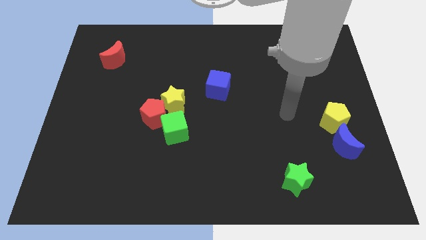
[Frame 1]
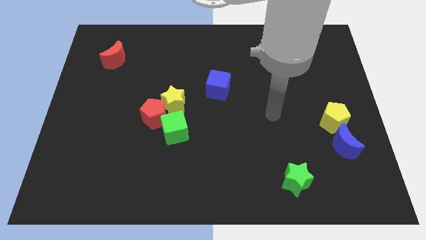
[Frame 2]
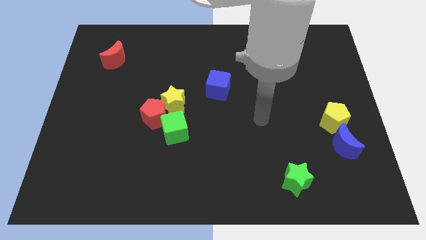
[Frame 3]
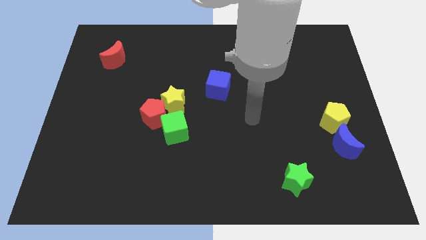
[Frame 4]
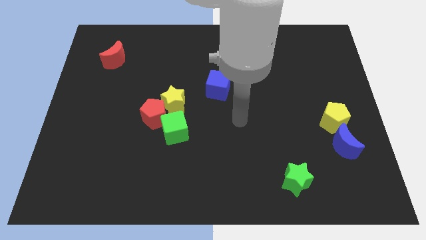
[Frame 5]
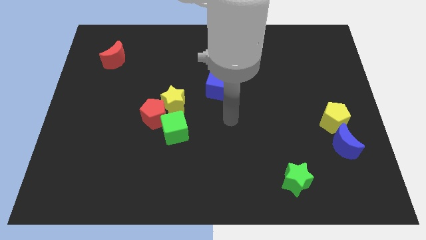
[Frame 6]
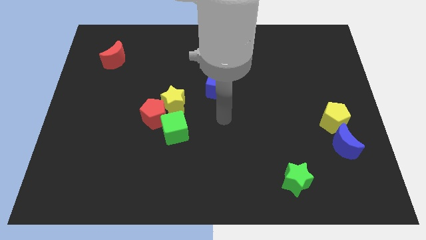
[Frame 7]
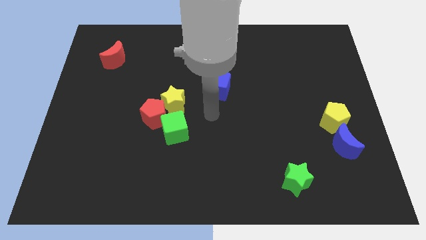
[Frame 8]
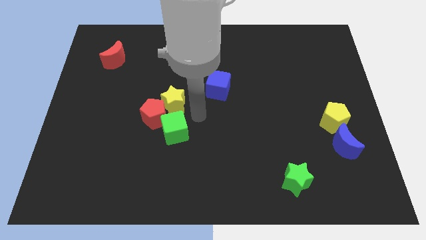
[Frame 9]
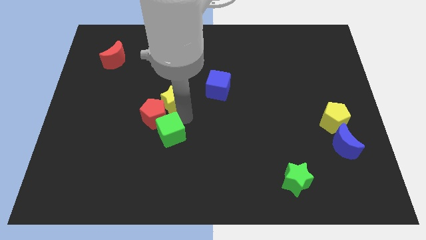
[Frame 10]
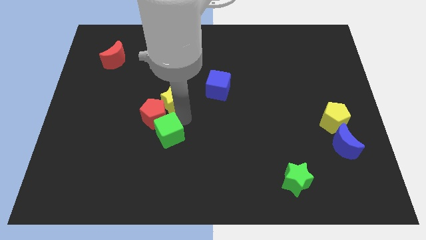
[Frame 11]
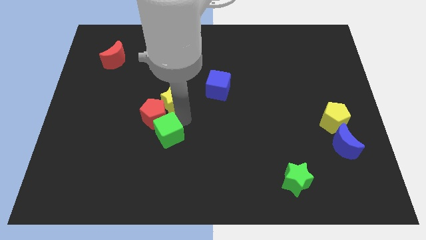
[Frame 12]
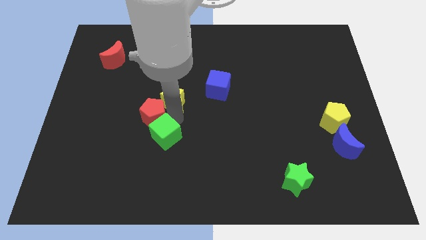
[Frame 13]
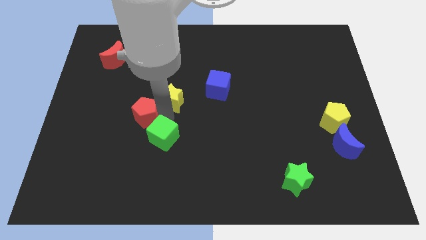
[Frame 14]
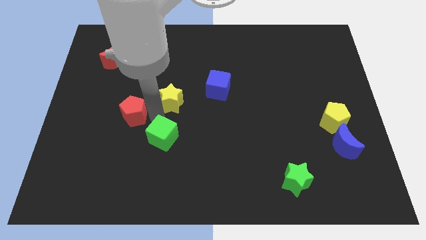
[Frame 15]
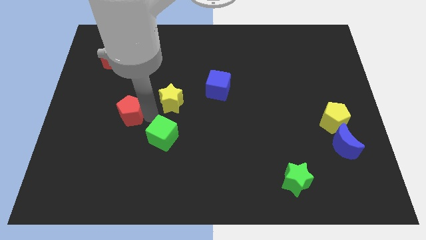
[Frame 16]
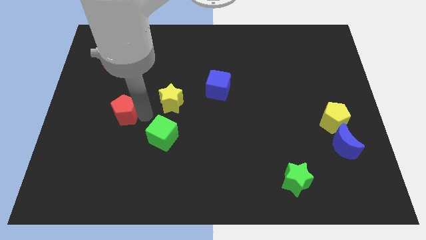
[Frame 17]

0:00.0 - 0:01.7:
pull the red pentagon apart from the yellow star and green cube

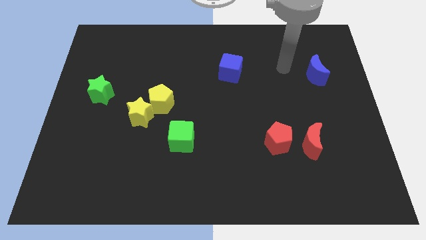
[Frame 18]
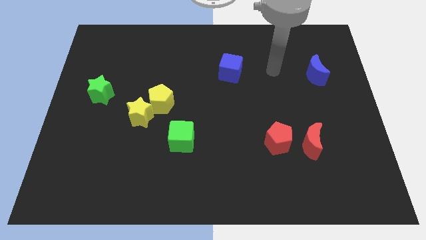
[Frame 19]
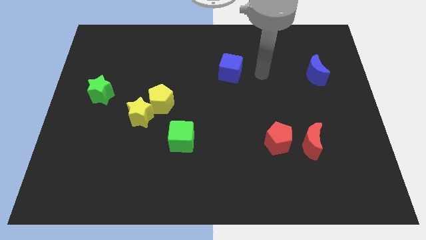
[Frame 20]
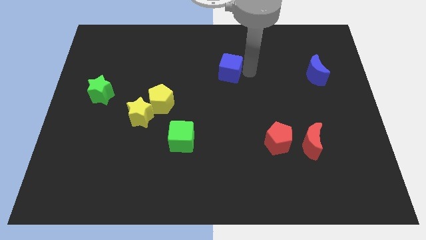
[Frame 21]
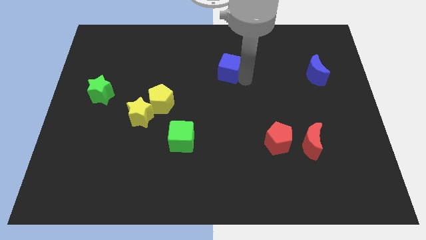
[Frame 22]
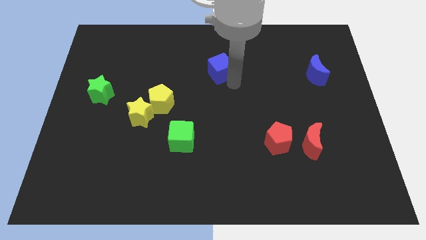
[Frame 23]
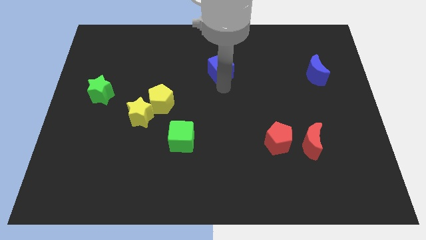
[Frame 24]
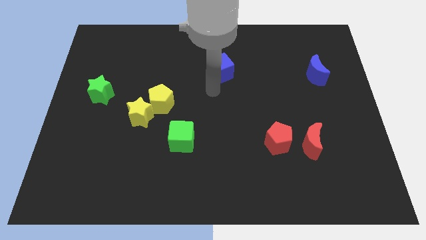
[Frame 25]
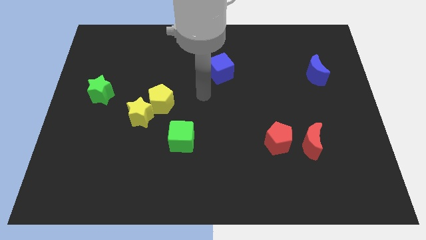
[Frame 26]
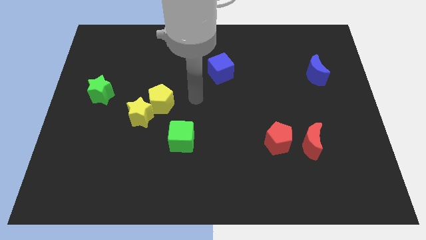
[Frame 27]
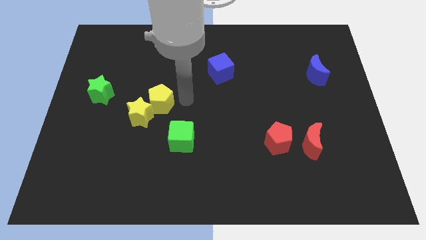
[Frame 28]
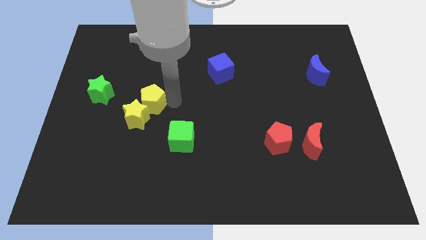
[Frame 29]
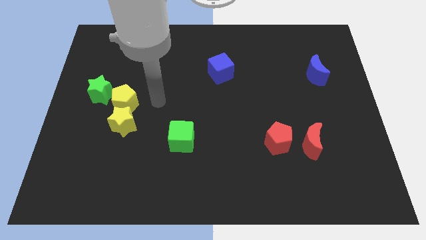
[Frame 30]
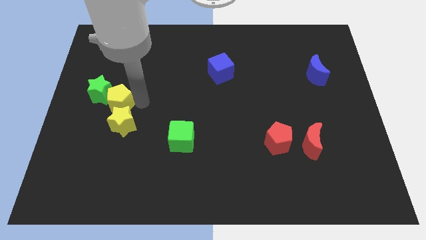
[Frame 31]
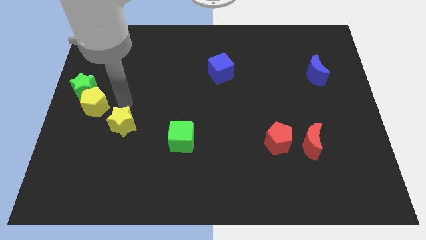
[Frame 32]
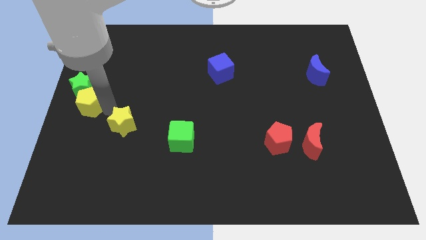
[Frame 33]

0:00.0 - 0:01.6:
move the yellow star away from the yellow pentagon

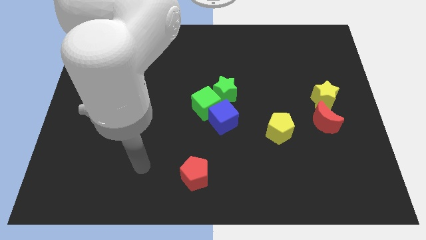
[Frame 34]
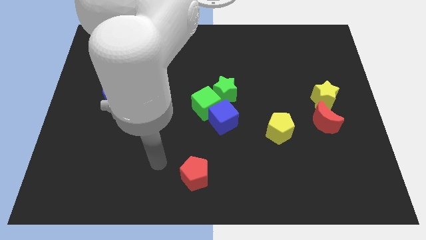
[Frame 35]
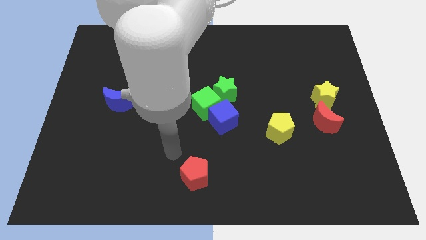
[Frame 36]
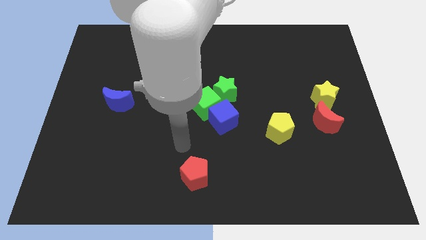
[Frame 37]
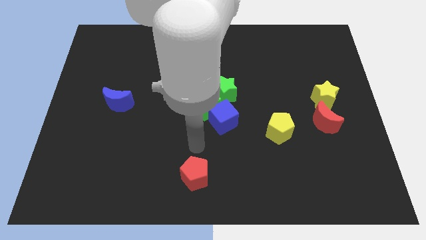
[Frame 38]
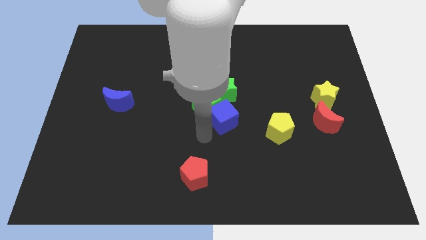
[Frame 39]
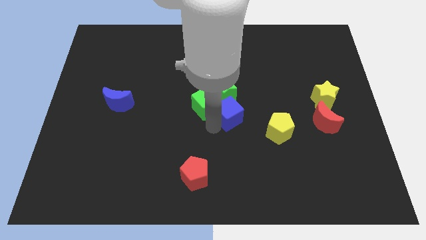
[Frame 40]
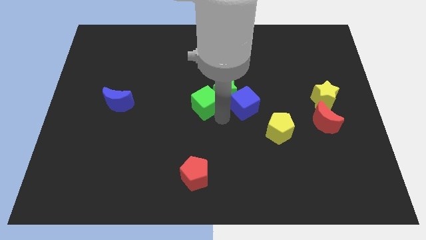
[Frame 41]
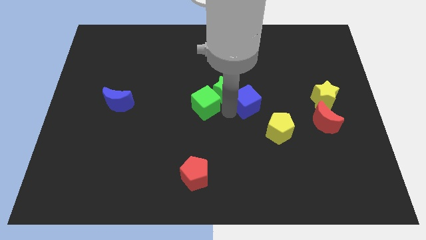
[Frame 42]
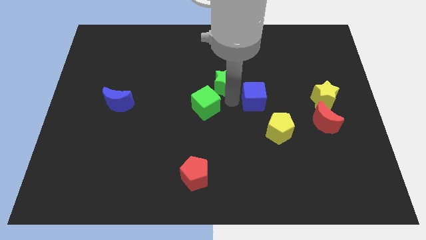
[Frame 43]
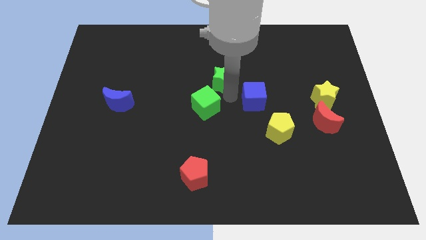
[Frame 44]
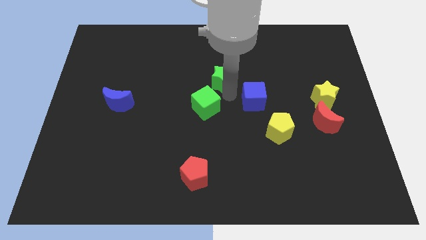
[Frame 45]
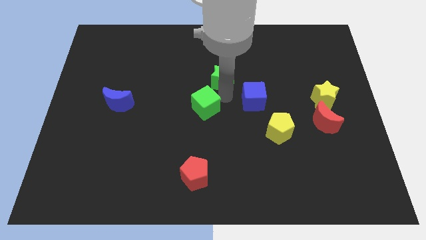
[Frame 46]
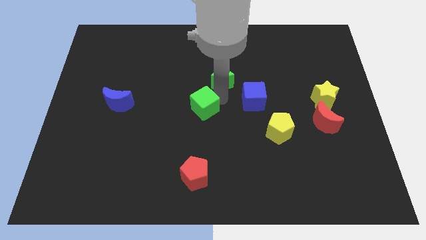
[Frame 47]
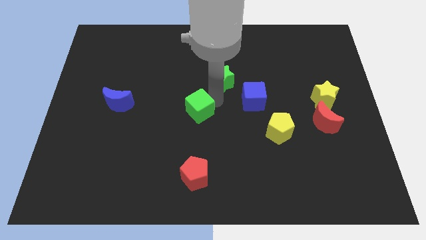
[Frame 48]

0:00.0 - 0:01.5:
pull the green cube apart from the blue cube and green star

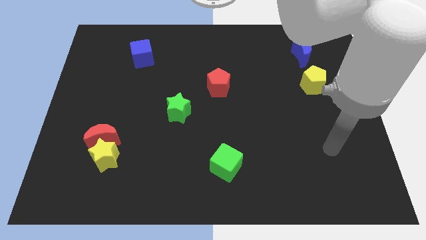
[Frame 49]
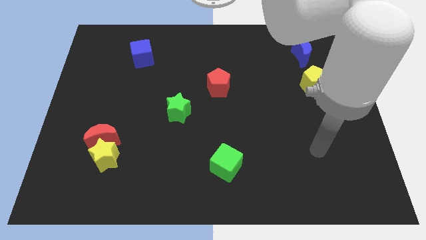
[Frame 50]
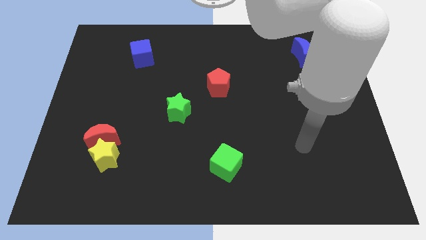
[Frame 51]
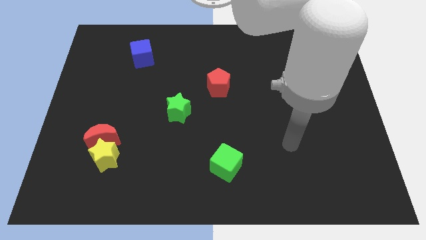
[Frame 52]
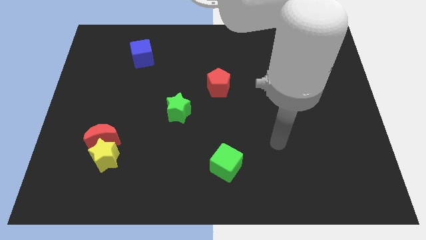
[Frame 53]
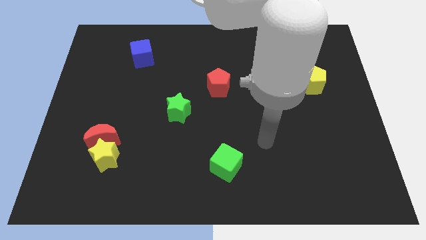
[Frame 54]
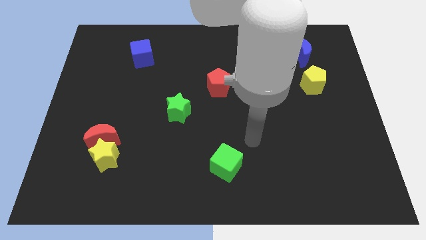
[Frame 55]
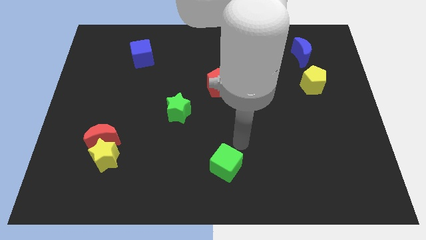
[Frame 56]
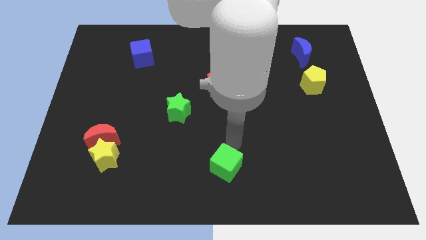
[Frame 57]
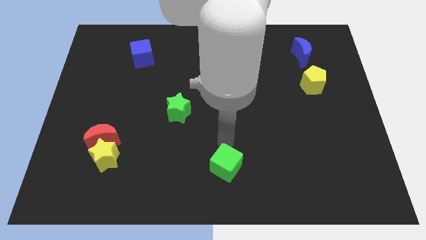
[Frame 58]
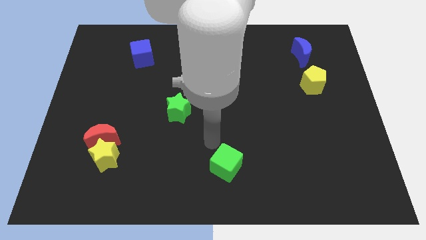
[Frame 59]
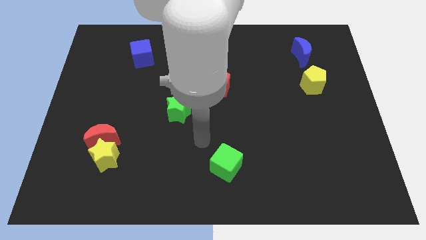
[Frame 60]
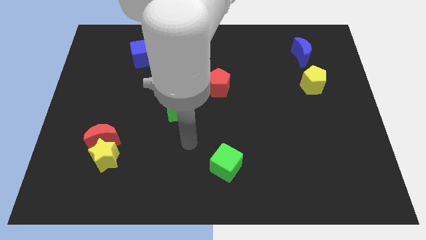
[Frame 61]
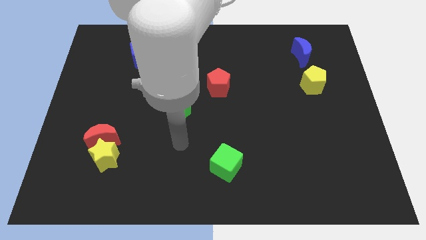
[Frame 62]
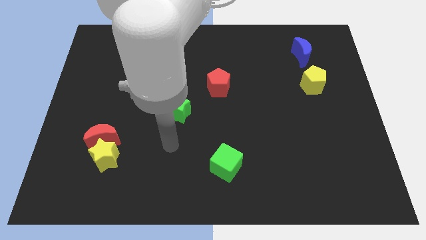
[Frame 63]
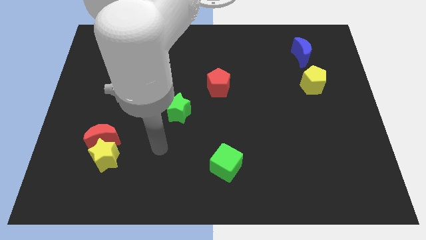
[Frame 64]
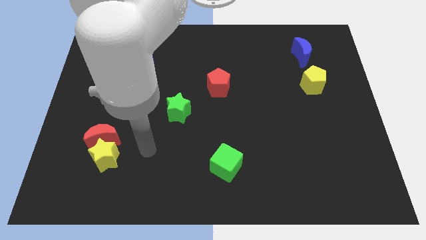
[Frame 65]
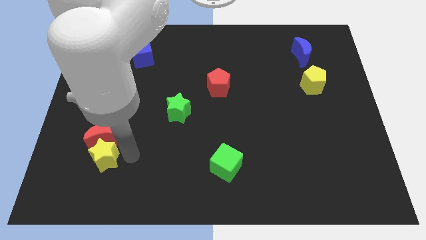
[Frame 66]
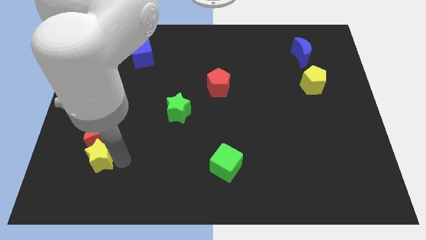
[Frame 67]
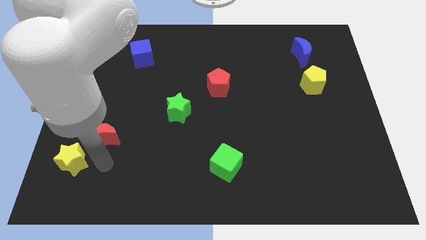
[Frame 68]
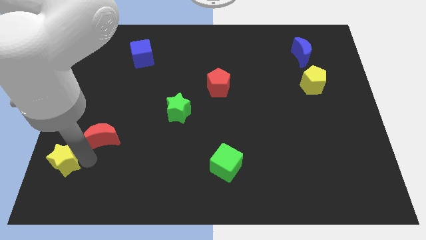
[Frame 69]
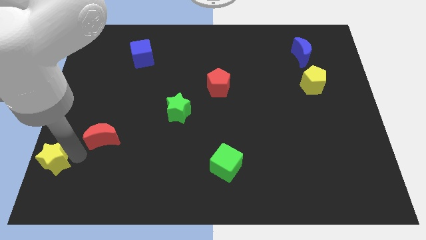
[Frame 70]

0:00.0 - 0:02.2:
separate the red moon from the yellow star

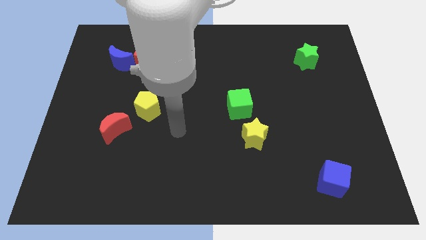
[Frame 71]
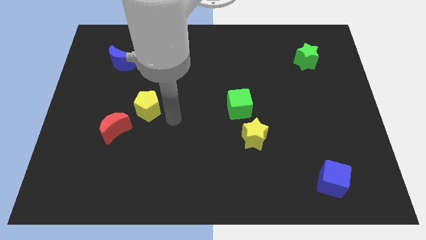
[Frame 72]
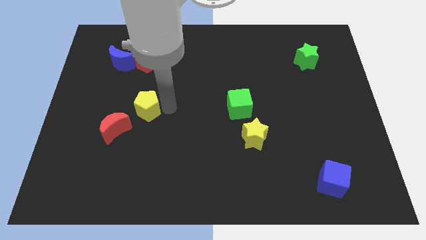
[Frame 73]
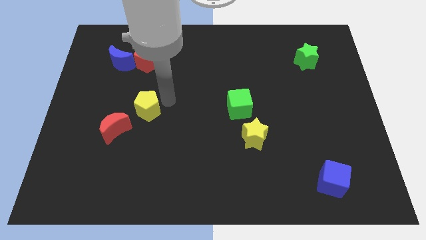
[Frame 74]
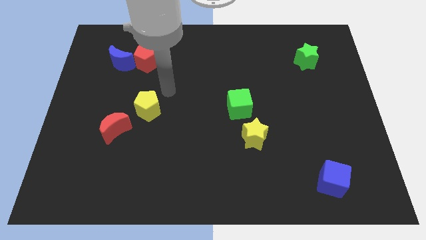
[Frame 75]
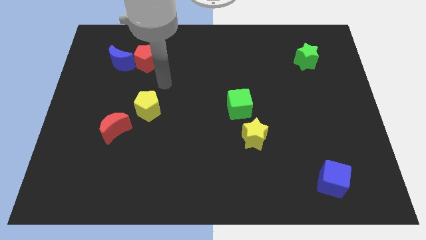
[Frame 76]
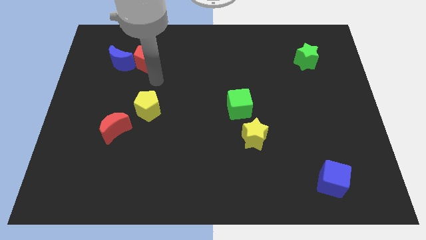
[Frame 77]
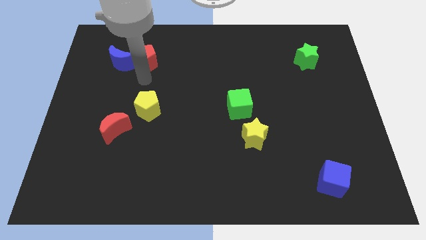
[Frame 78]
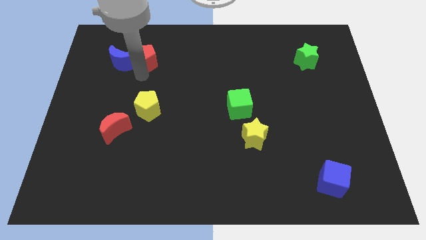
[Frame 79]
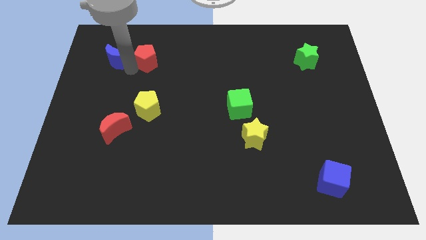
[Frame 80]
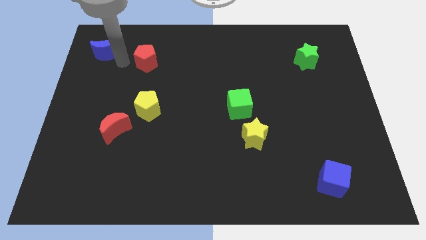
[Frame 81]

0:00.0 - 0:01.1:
move the red pentagon away from the blue moon

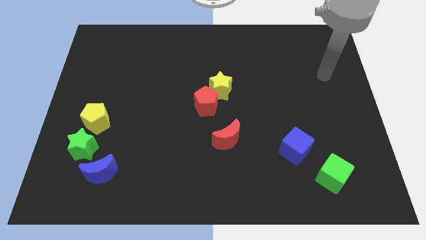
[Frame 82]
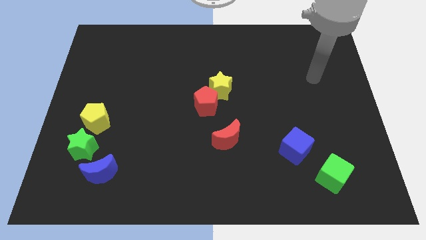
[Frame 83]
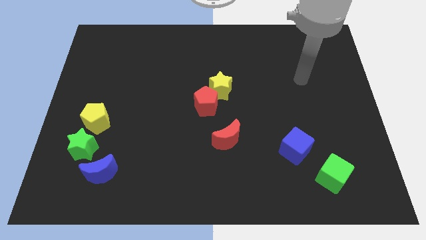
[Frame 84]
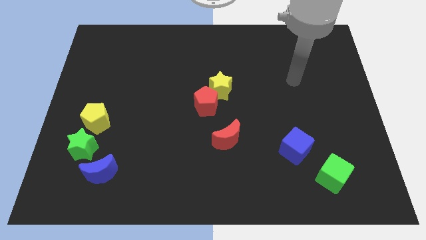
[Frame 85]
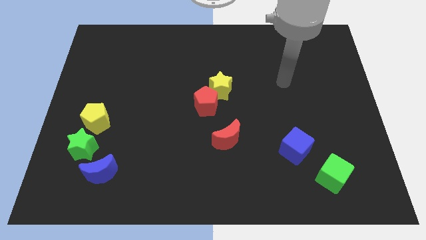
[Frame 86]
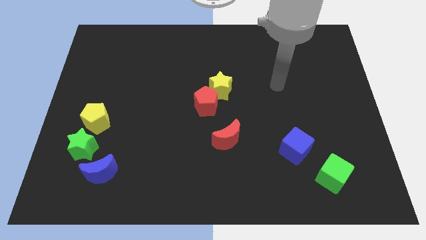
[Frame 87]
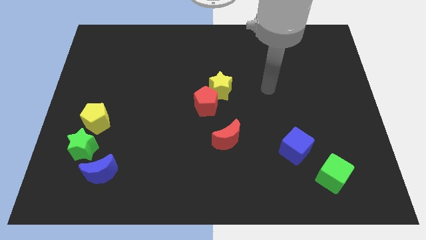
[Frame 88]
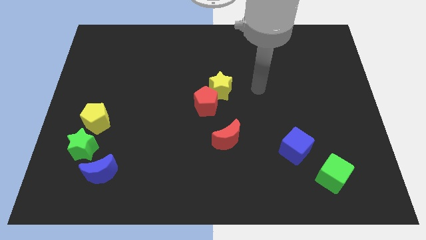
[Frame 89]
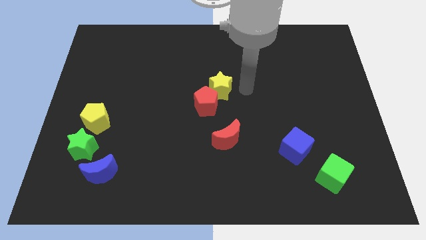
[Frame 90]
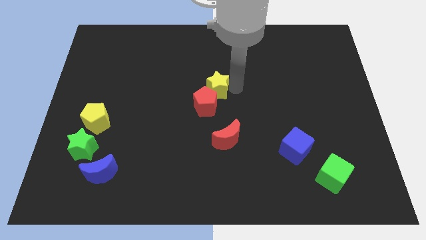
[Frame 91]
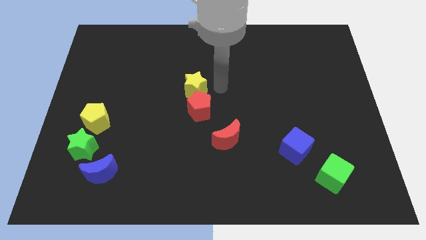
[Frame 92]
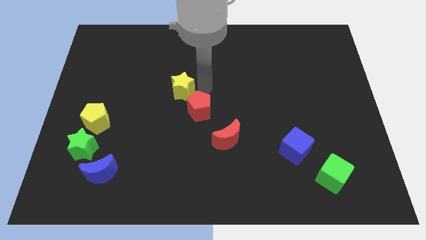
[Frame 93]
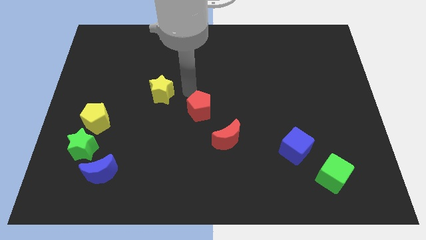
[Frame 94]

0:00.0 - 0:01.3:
separate the red pentagon from the yellow star
